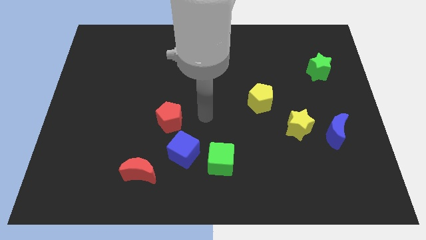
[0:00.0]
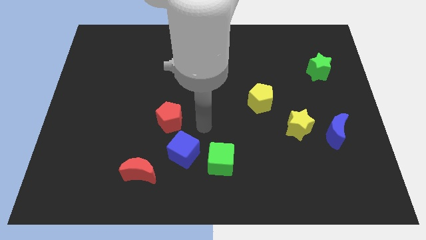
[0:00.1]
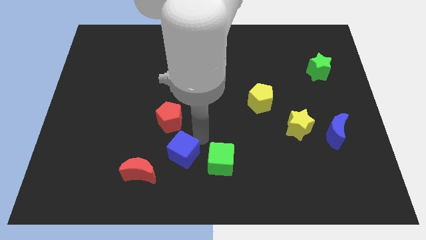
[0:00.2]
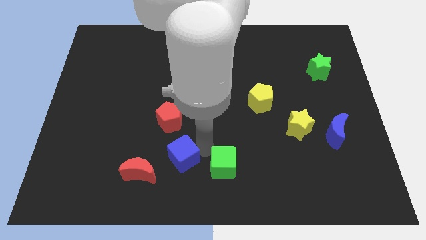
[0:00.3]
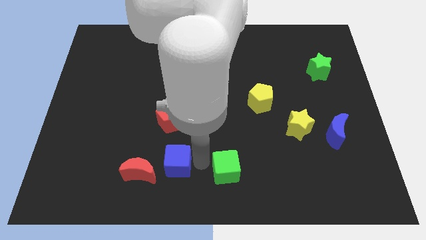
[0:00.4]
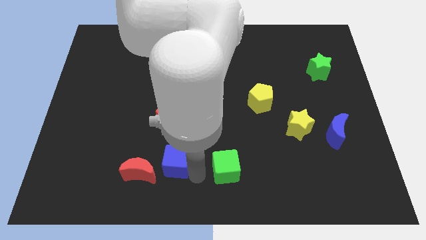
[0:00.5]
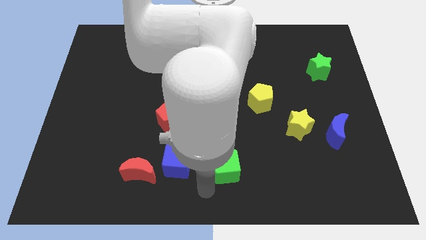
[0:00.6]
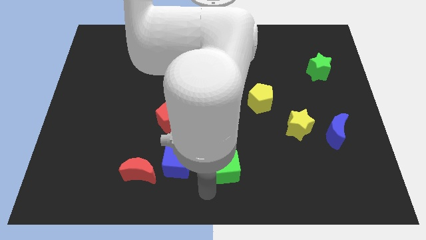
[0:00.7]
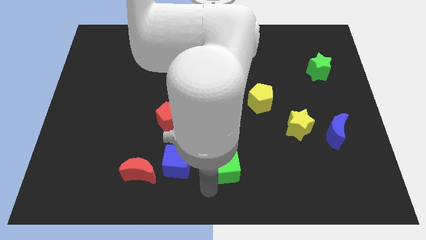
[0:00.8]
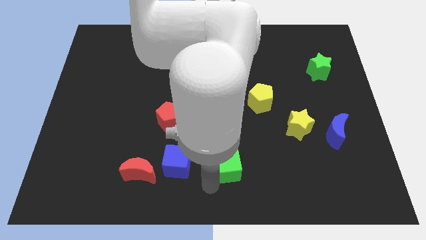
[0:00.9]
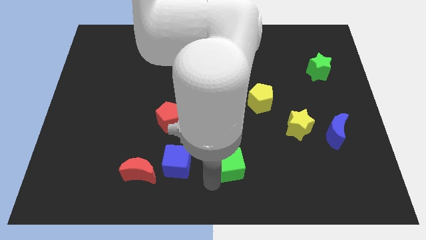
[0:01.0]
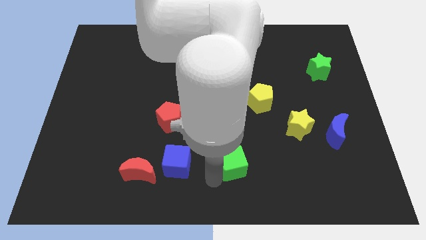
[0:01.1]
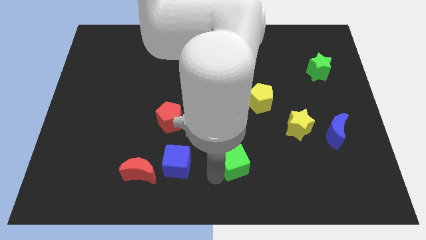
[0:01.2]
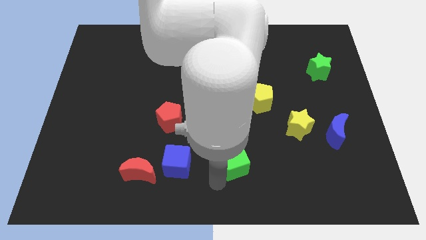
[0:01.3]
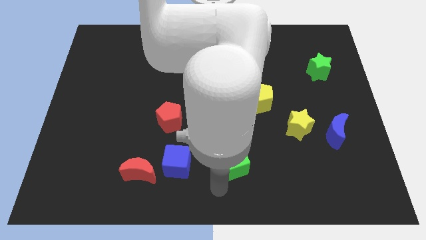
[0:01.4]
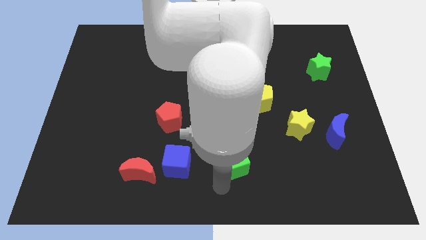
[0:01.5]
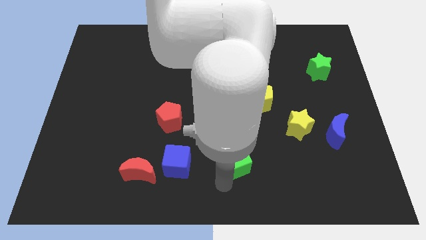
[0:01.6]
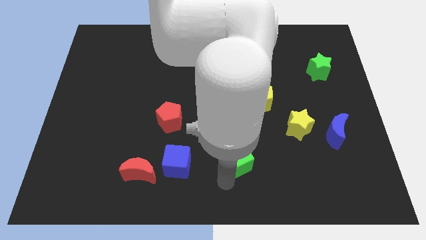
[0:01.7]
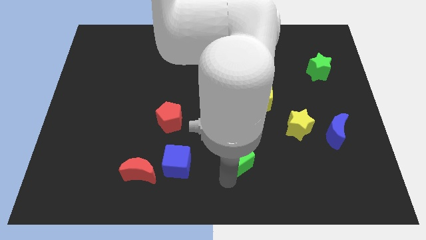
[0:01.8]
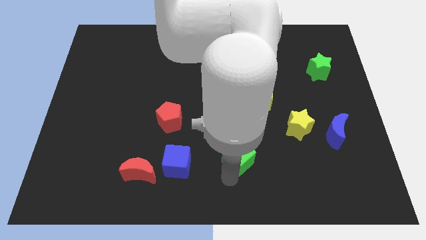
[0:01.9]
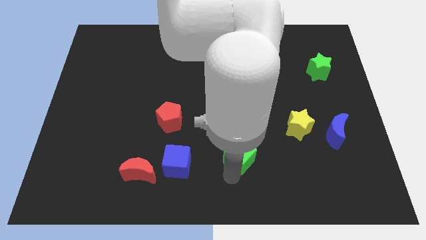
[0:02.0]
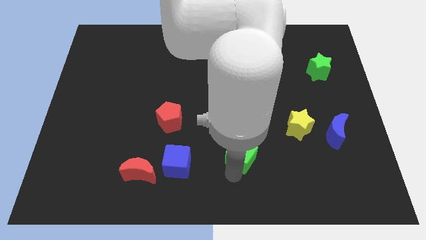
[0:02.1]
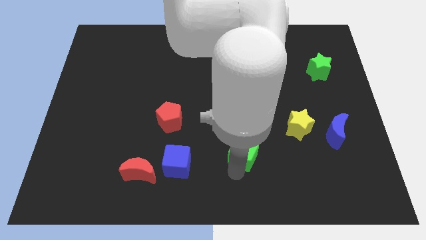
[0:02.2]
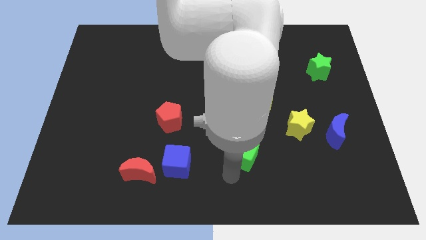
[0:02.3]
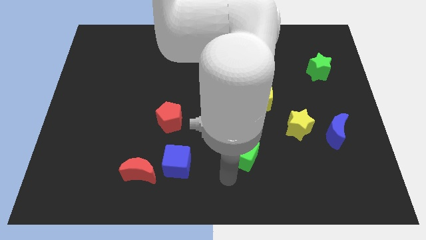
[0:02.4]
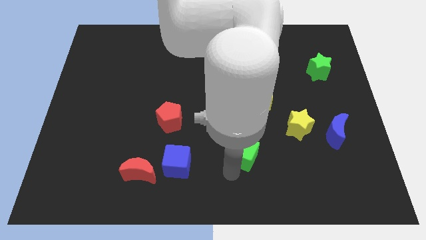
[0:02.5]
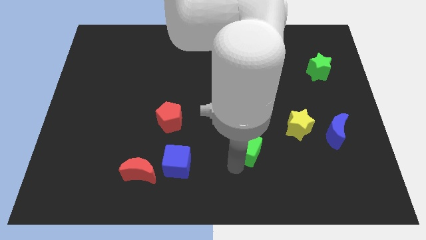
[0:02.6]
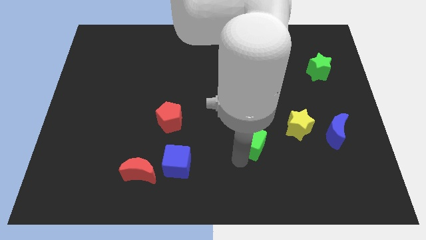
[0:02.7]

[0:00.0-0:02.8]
slide the green cube upwards and to the right a little

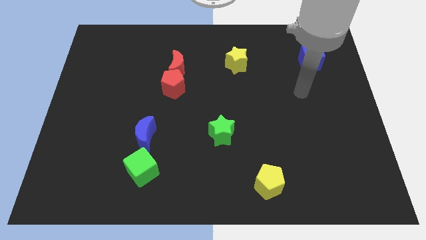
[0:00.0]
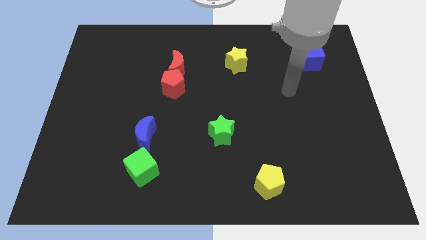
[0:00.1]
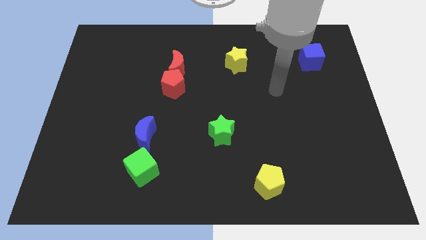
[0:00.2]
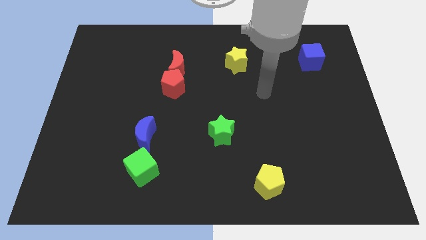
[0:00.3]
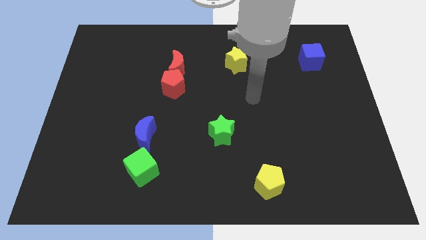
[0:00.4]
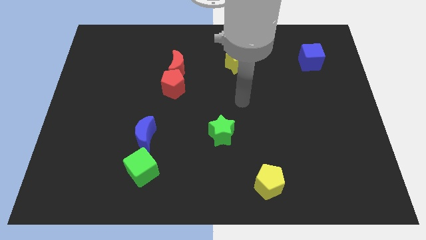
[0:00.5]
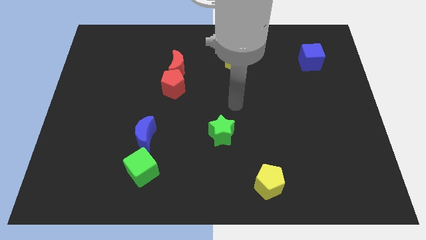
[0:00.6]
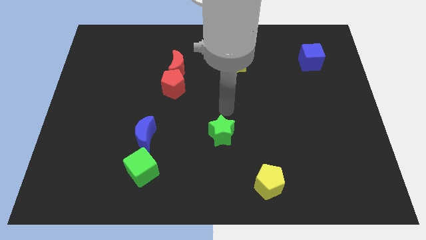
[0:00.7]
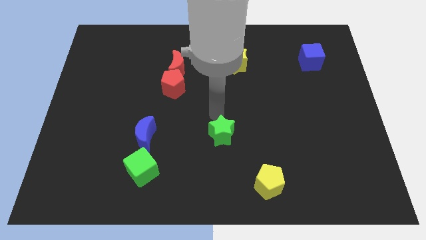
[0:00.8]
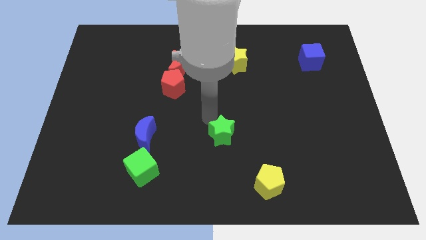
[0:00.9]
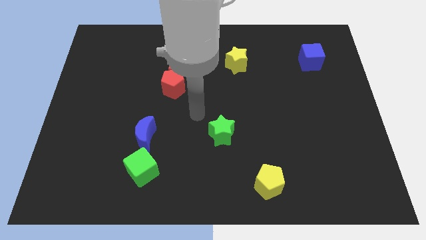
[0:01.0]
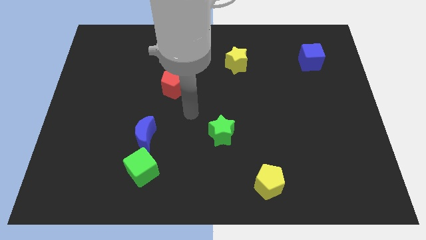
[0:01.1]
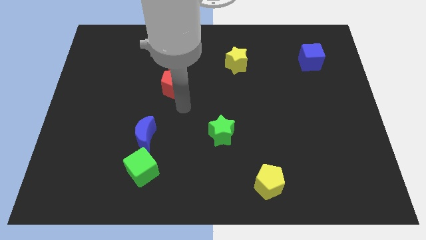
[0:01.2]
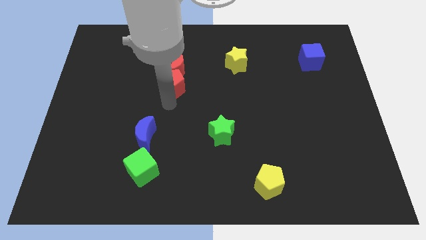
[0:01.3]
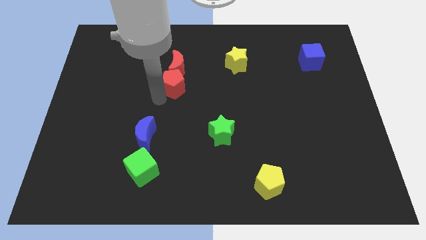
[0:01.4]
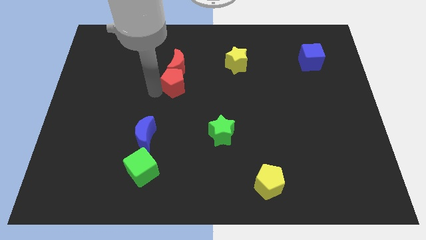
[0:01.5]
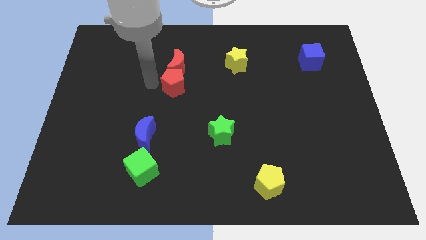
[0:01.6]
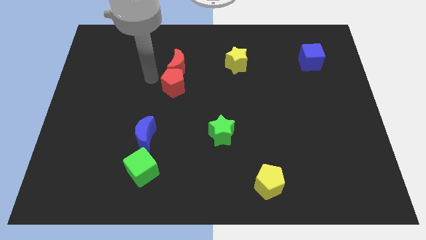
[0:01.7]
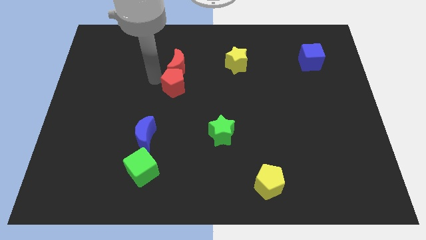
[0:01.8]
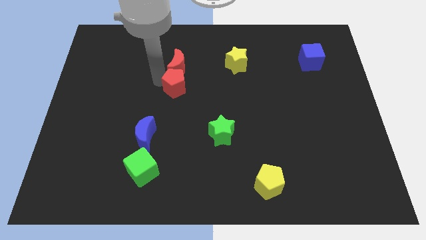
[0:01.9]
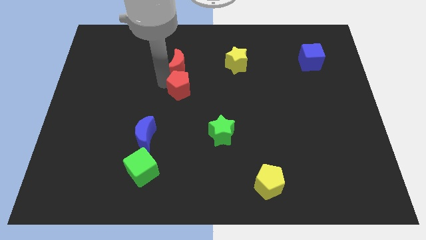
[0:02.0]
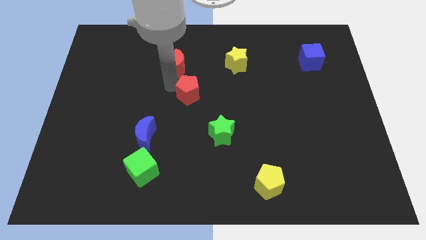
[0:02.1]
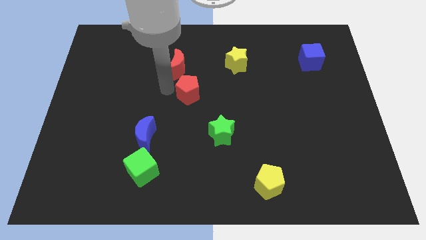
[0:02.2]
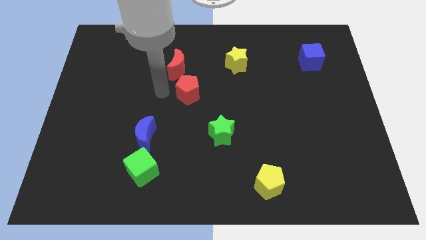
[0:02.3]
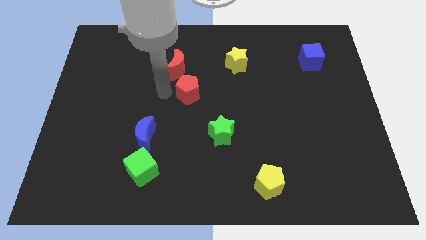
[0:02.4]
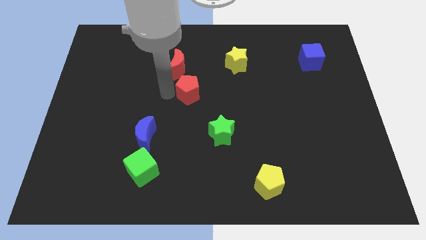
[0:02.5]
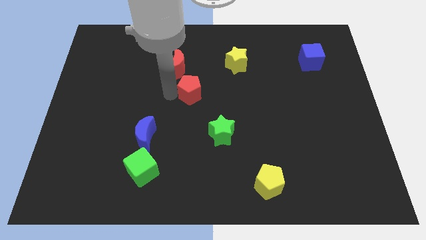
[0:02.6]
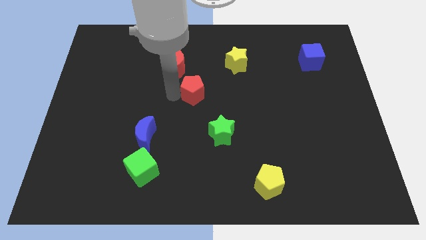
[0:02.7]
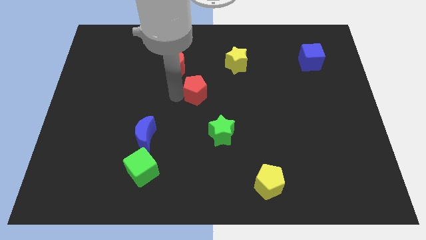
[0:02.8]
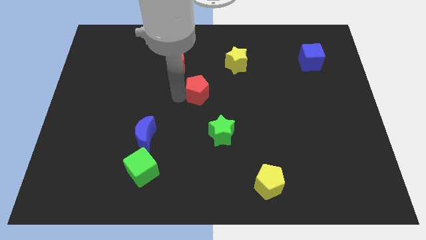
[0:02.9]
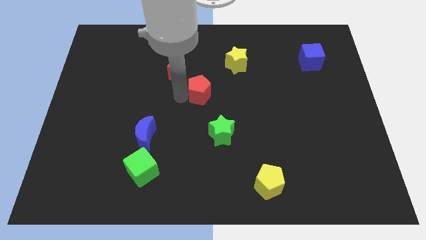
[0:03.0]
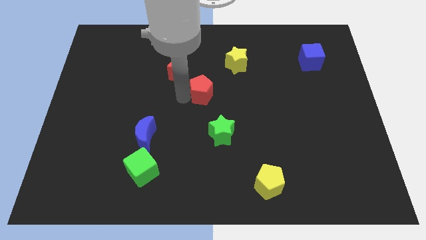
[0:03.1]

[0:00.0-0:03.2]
slightly slide the red pentagon right

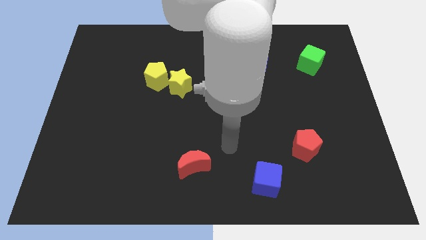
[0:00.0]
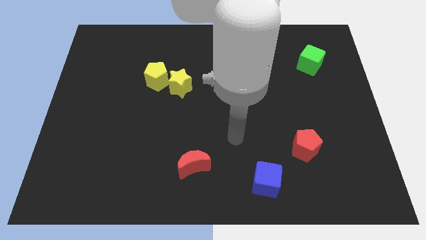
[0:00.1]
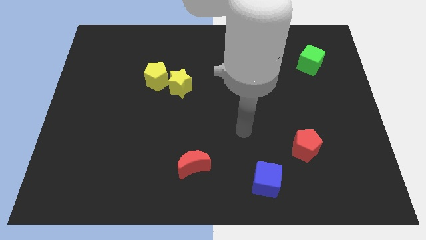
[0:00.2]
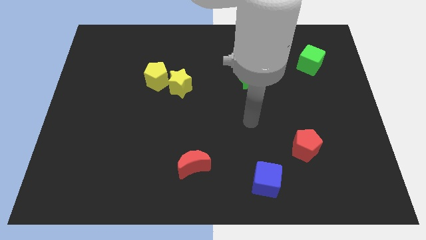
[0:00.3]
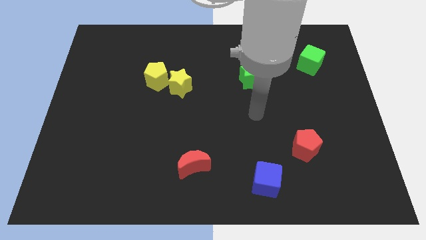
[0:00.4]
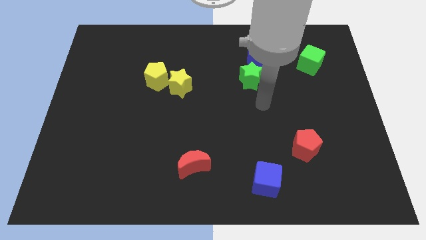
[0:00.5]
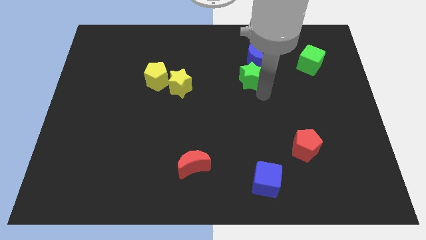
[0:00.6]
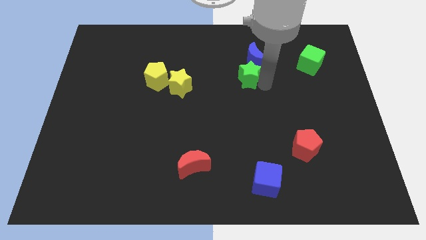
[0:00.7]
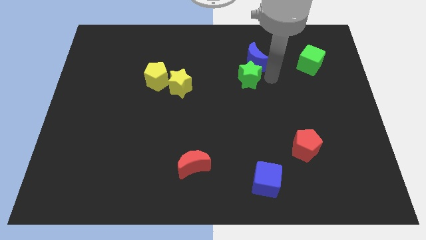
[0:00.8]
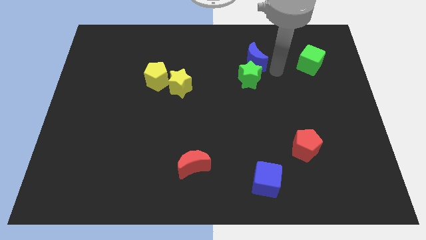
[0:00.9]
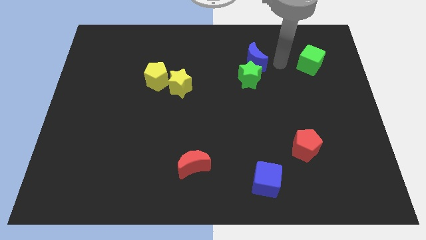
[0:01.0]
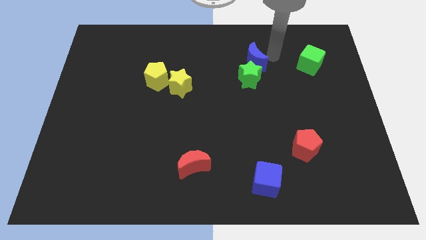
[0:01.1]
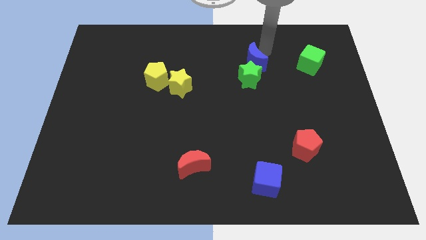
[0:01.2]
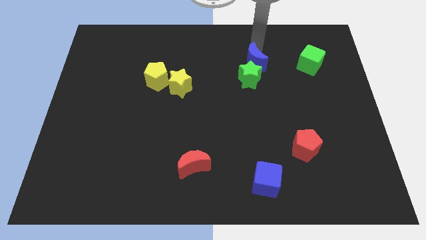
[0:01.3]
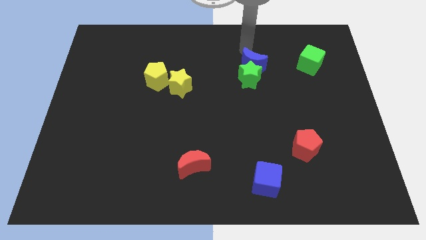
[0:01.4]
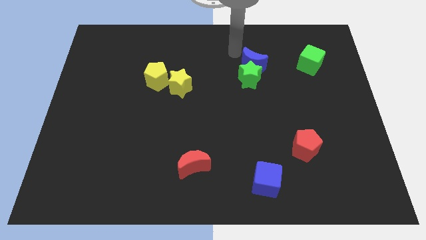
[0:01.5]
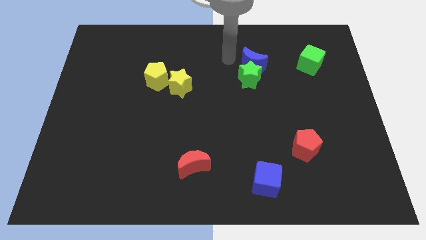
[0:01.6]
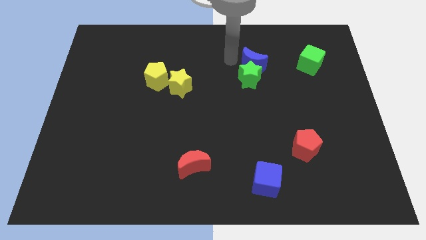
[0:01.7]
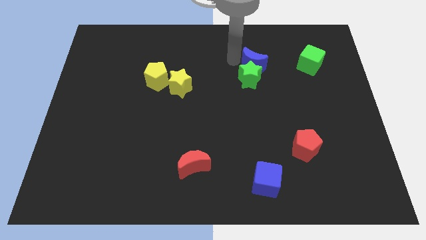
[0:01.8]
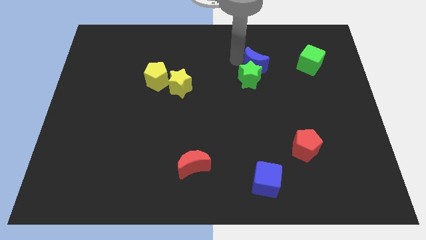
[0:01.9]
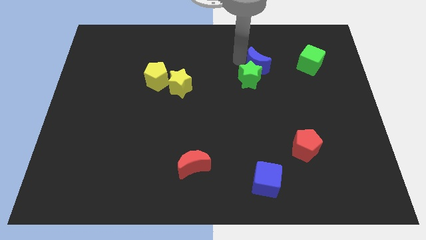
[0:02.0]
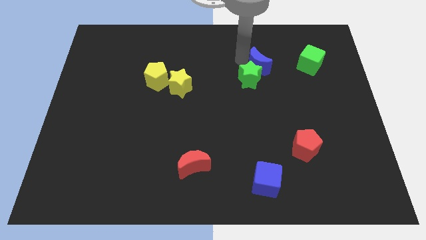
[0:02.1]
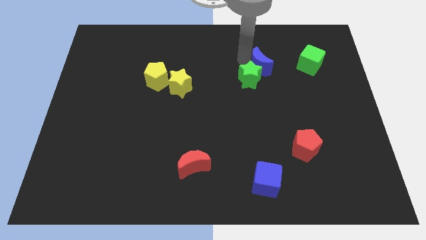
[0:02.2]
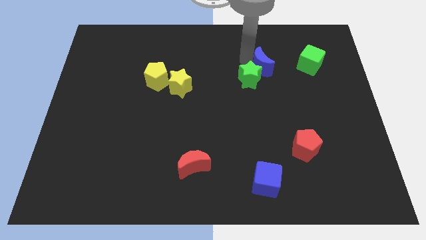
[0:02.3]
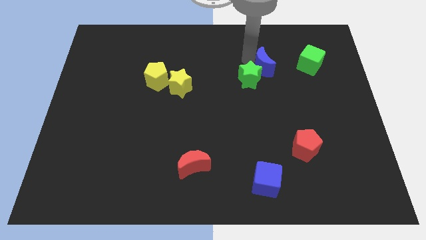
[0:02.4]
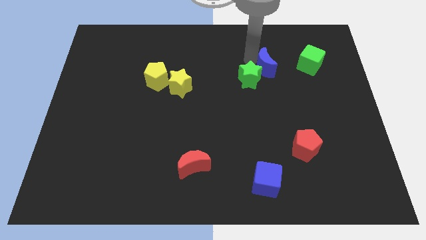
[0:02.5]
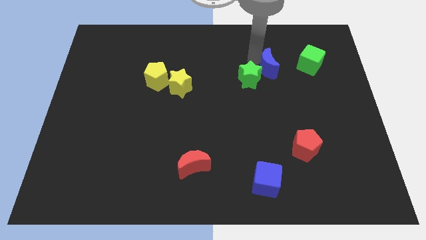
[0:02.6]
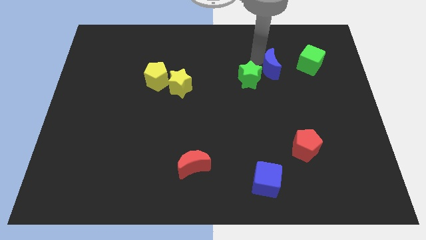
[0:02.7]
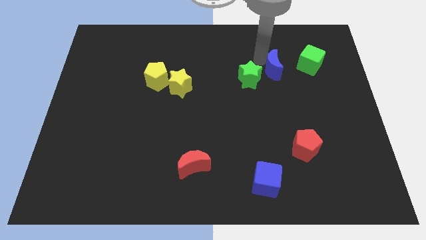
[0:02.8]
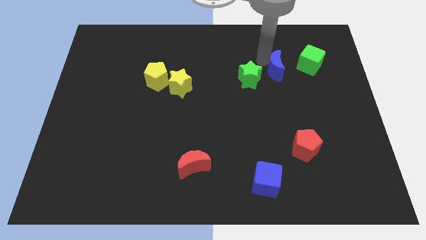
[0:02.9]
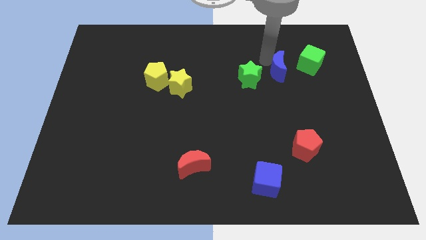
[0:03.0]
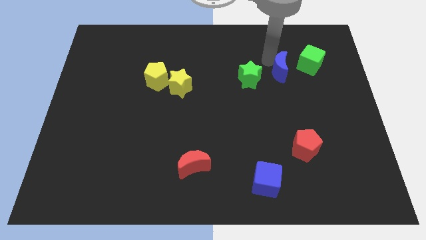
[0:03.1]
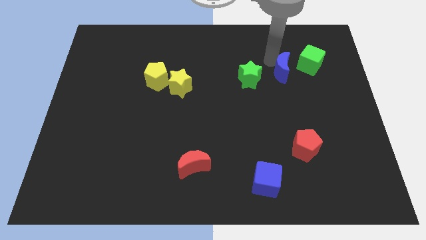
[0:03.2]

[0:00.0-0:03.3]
move the blue moon down and right somewhat
